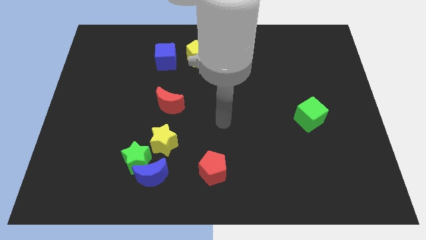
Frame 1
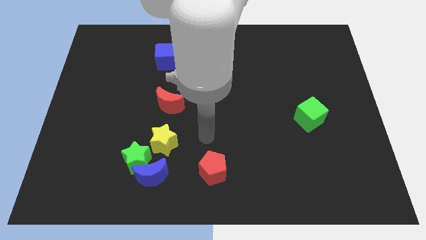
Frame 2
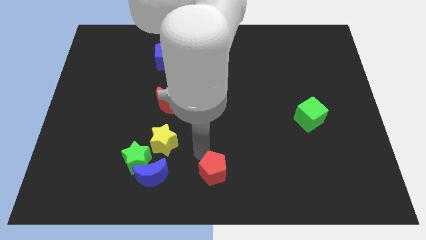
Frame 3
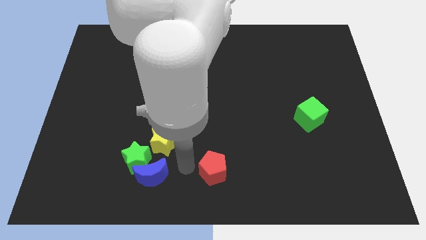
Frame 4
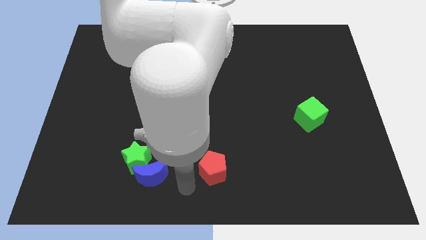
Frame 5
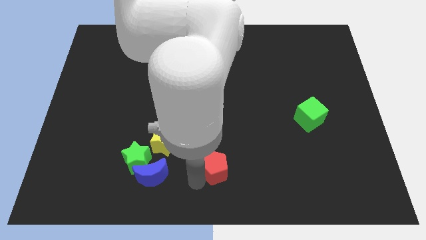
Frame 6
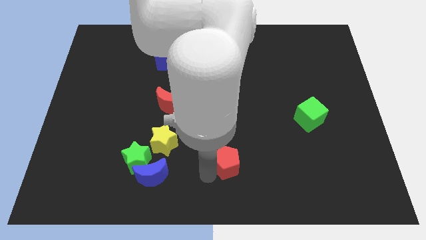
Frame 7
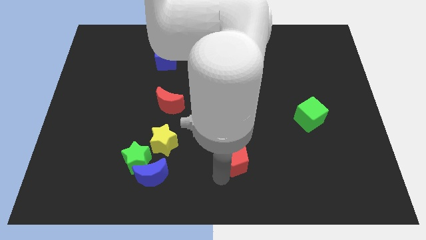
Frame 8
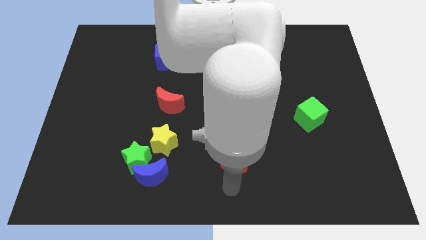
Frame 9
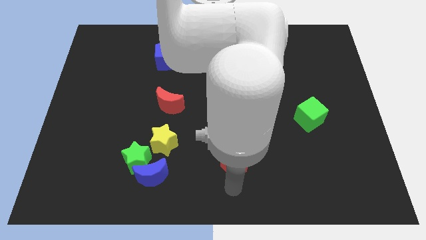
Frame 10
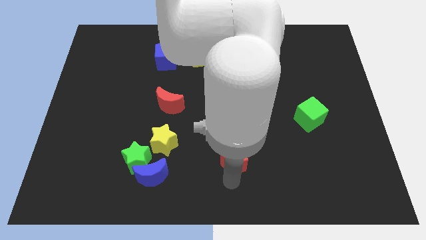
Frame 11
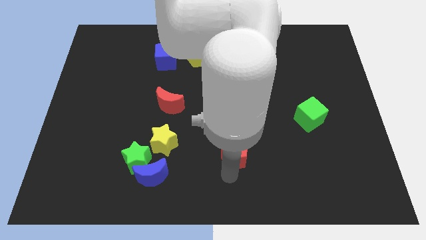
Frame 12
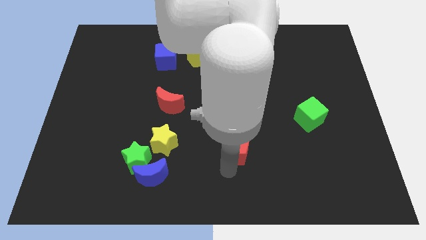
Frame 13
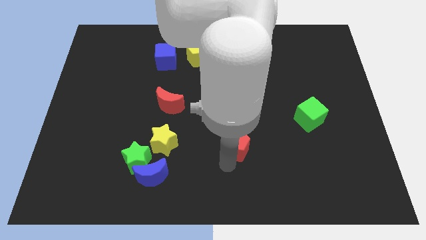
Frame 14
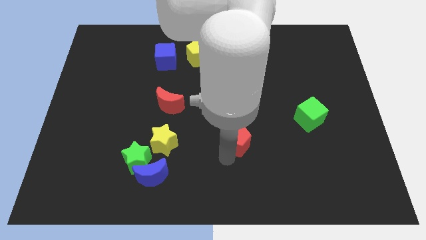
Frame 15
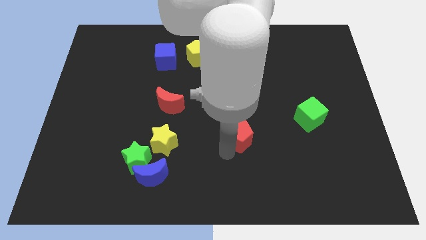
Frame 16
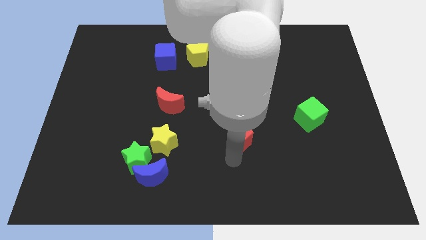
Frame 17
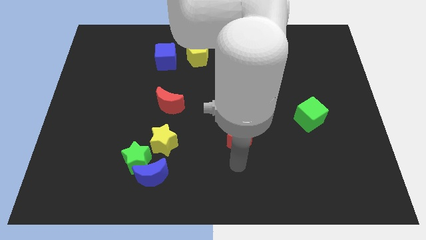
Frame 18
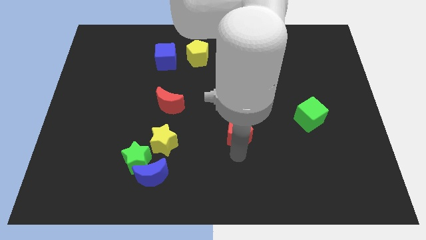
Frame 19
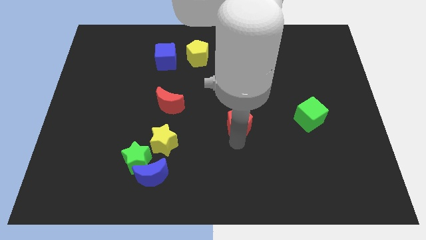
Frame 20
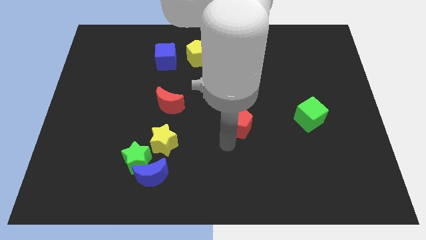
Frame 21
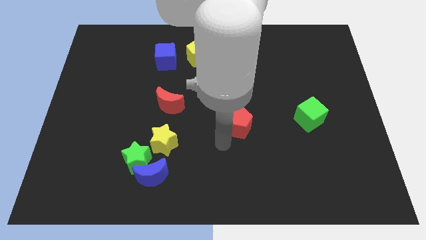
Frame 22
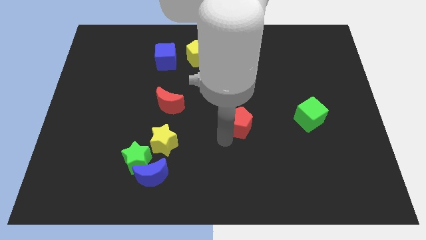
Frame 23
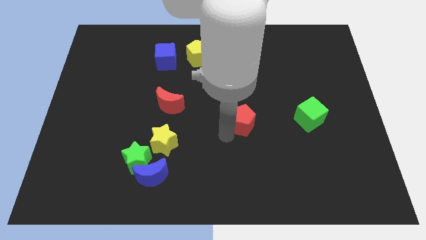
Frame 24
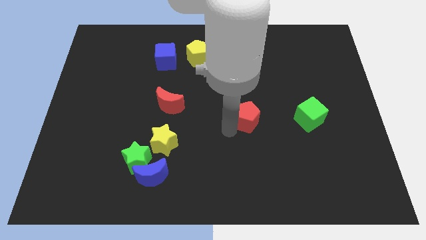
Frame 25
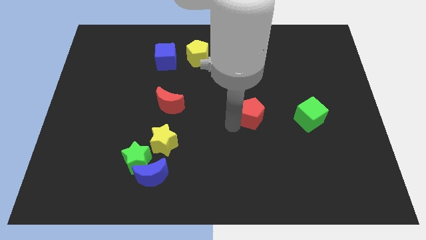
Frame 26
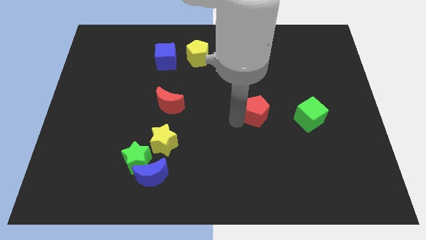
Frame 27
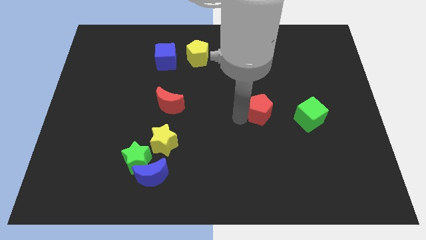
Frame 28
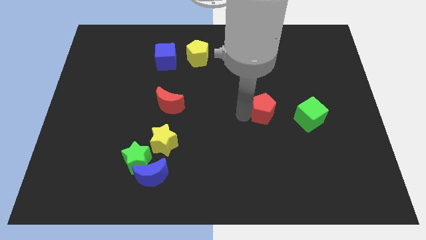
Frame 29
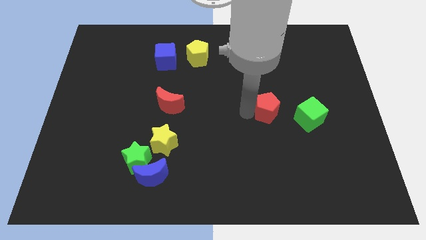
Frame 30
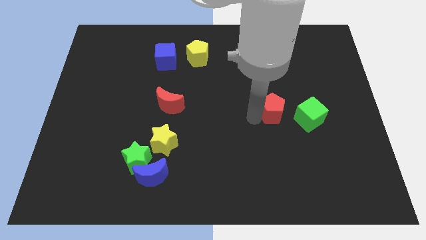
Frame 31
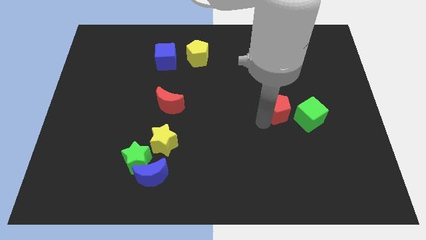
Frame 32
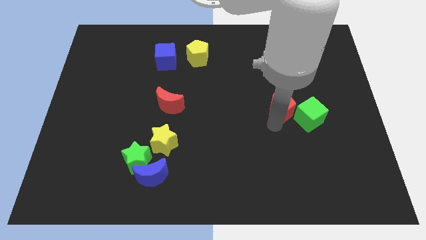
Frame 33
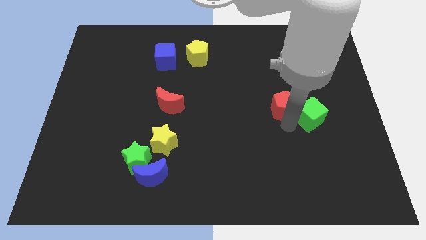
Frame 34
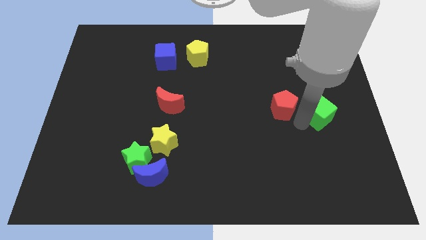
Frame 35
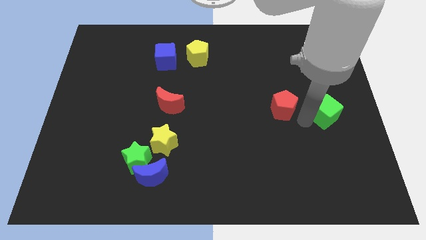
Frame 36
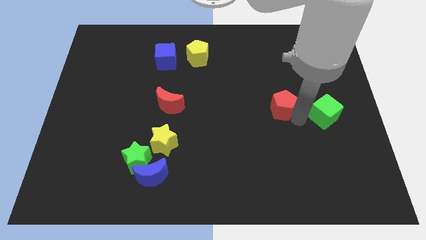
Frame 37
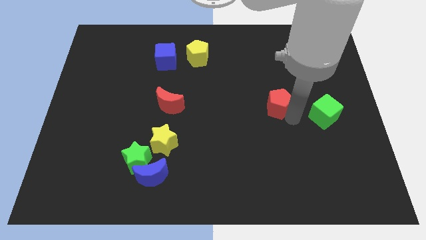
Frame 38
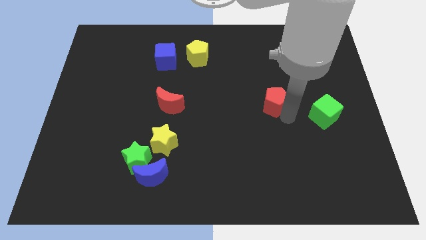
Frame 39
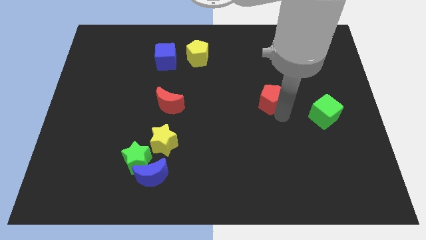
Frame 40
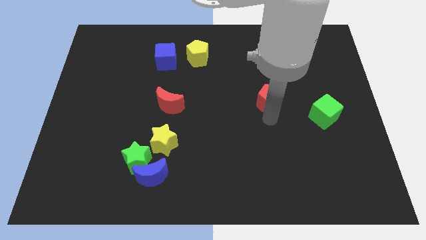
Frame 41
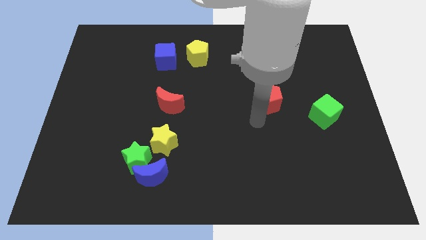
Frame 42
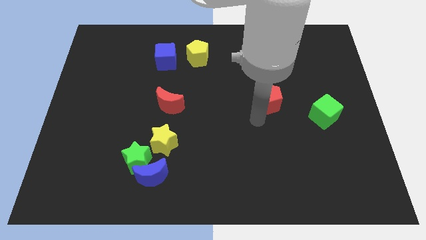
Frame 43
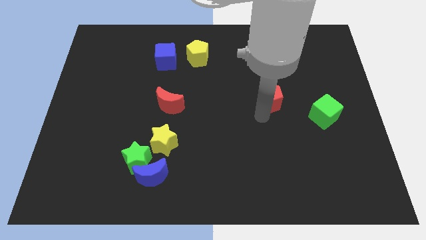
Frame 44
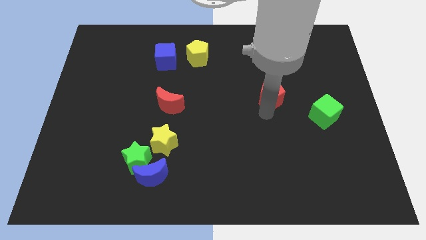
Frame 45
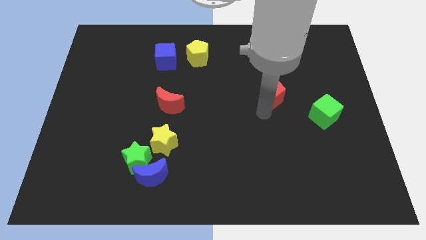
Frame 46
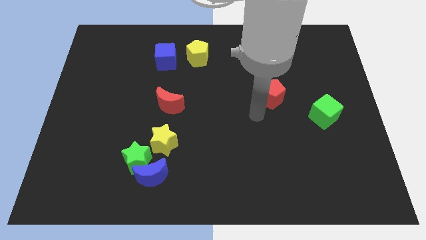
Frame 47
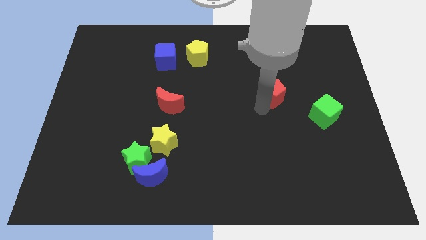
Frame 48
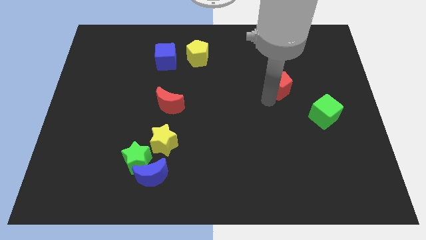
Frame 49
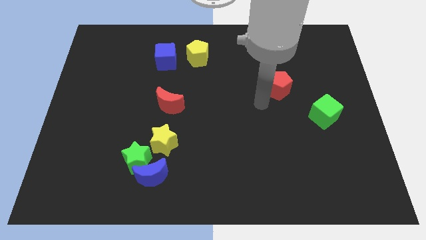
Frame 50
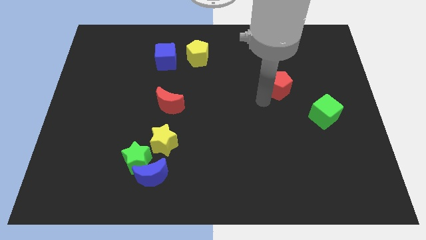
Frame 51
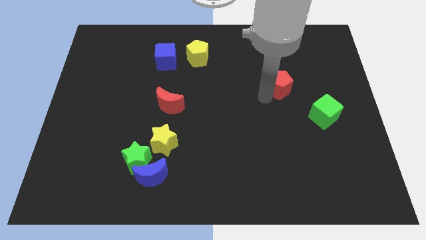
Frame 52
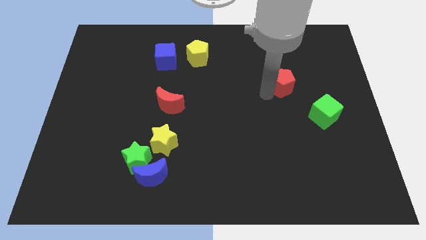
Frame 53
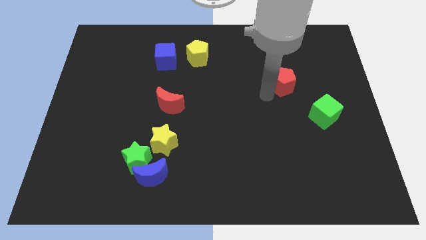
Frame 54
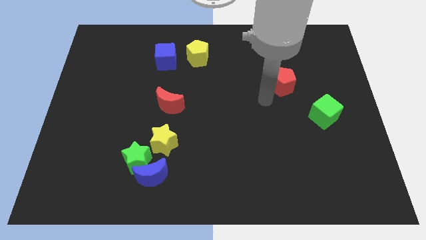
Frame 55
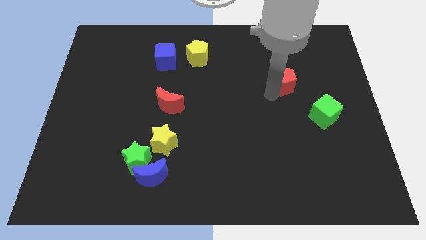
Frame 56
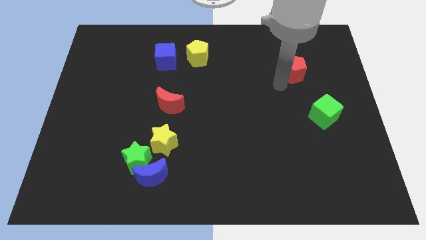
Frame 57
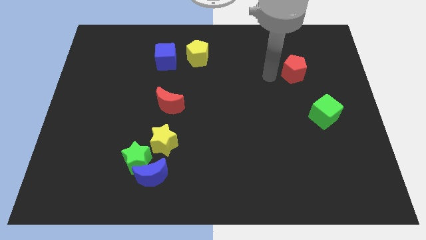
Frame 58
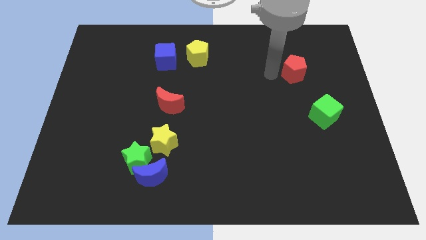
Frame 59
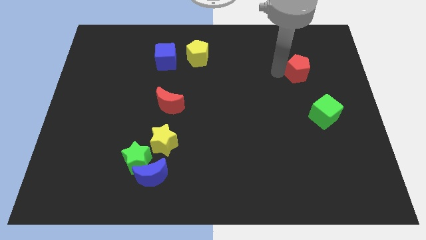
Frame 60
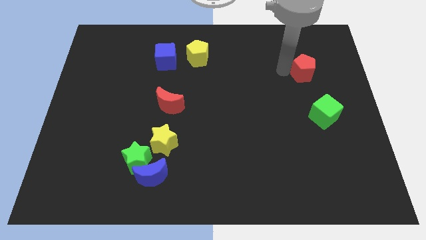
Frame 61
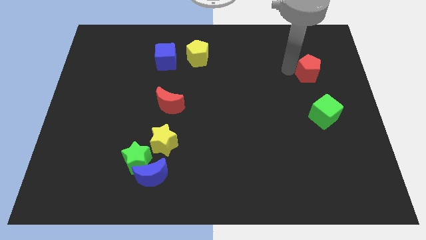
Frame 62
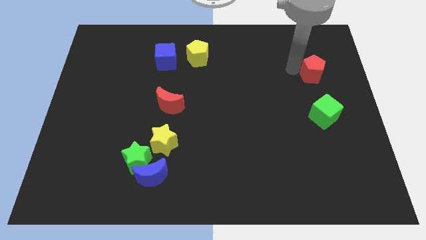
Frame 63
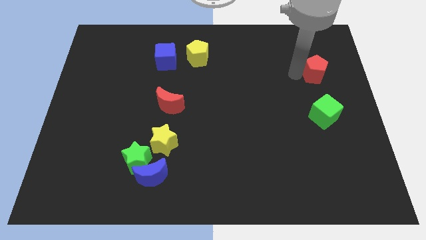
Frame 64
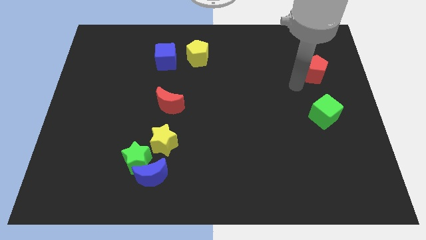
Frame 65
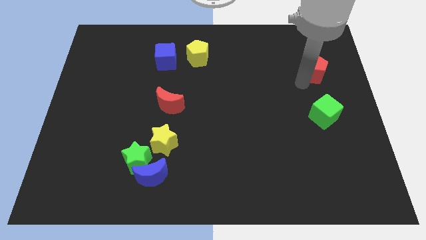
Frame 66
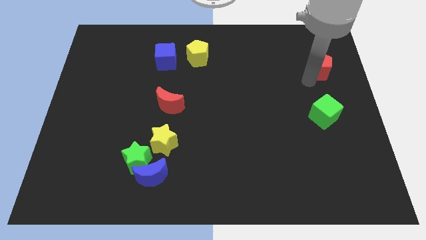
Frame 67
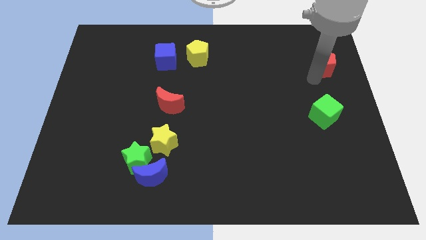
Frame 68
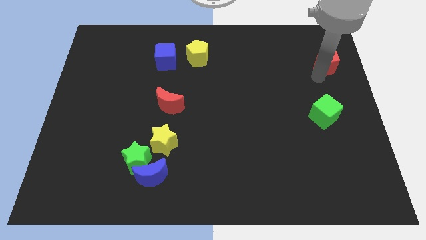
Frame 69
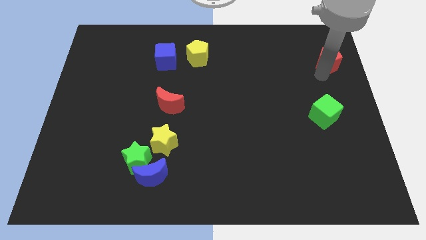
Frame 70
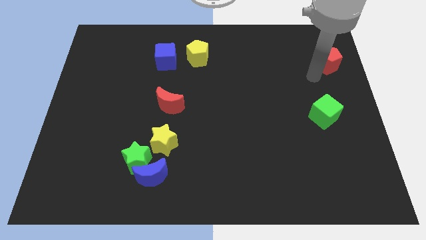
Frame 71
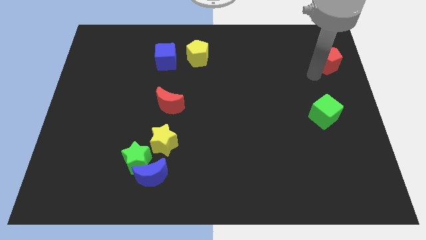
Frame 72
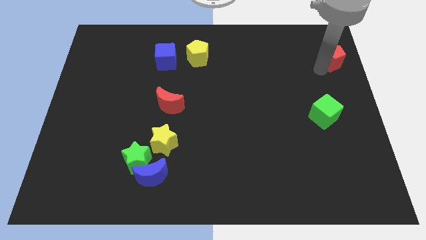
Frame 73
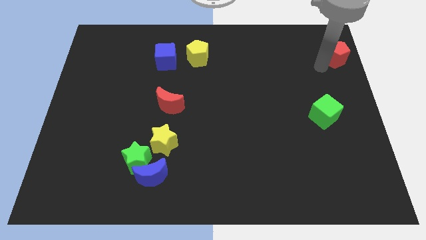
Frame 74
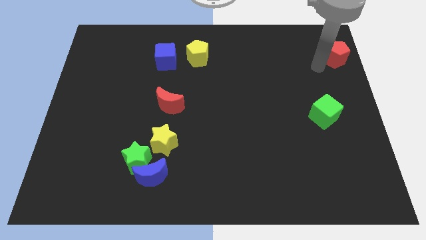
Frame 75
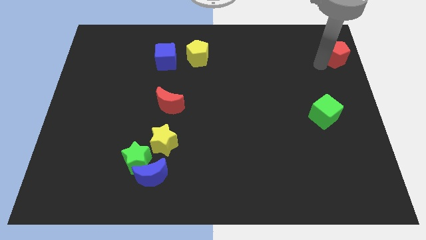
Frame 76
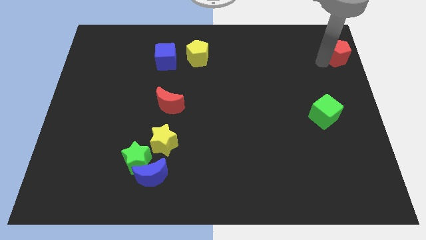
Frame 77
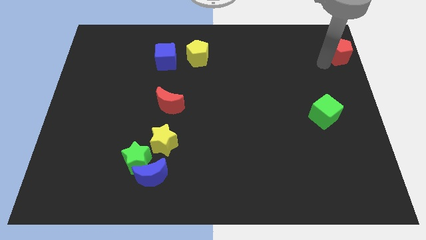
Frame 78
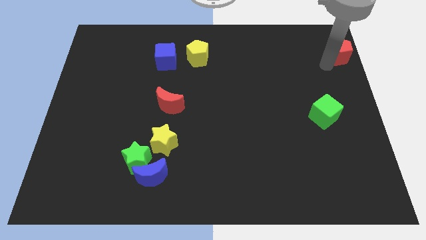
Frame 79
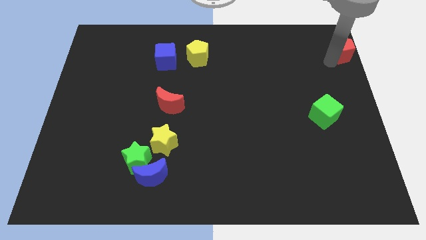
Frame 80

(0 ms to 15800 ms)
move the red pentagon to the top right
